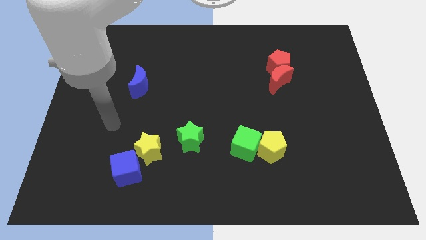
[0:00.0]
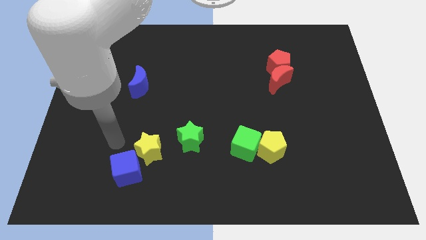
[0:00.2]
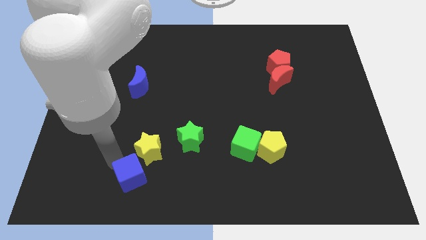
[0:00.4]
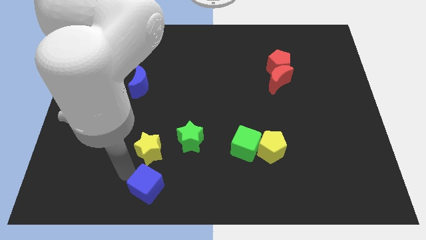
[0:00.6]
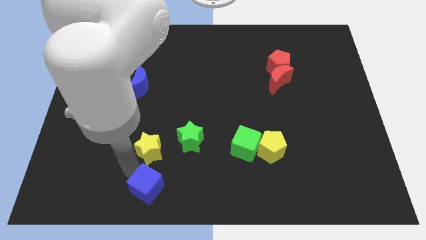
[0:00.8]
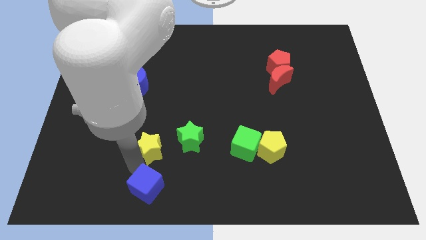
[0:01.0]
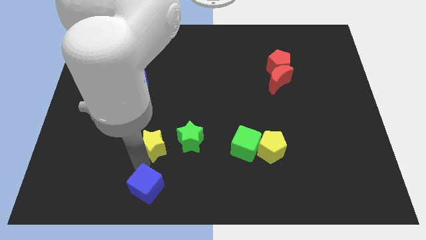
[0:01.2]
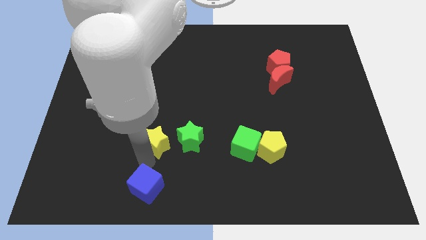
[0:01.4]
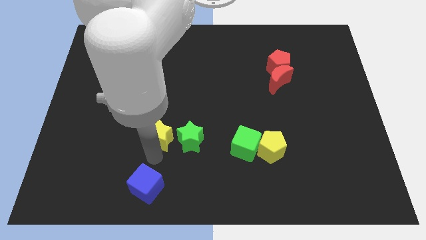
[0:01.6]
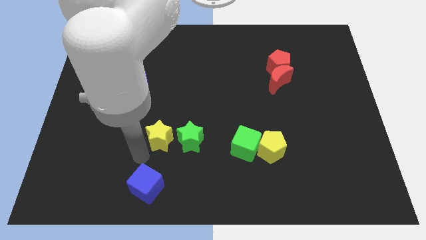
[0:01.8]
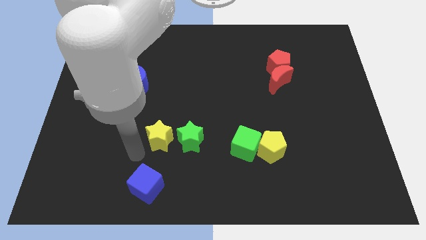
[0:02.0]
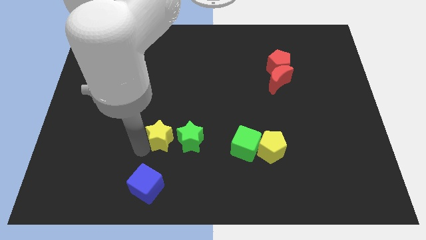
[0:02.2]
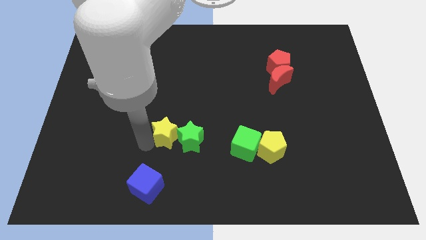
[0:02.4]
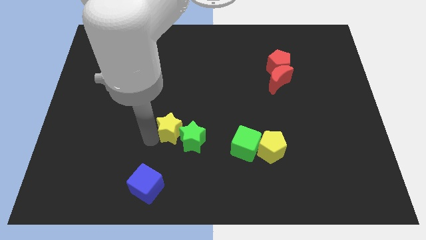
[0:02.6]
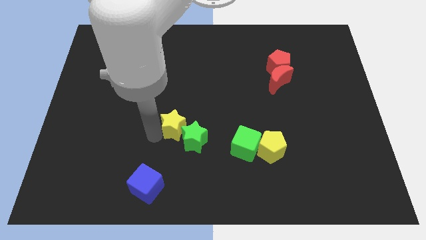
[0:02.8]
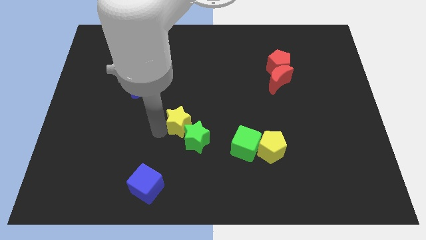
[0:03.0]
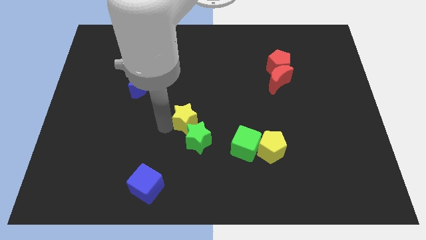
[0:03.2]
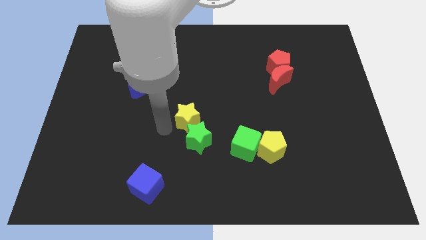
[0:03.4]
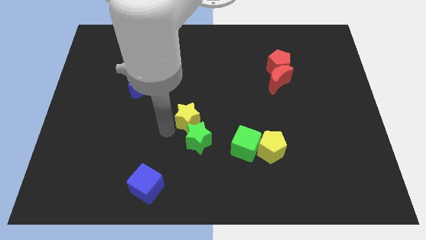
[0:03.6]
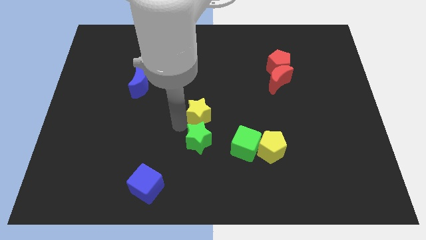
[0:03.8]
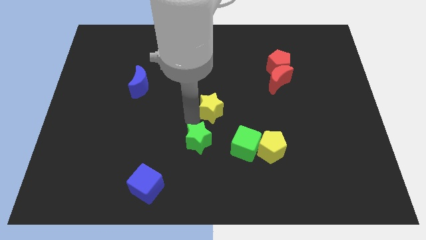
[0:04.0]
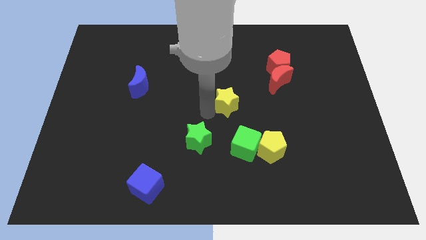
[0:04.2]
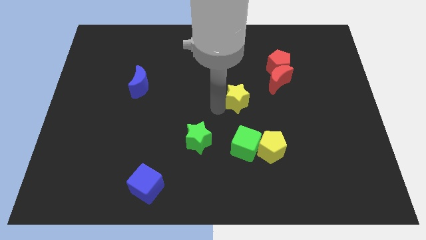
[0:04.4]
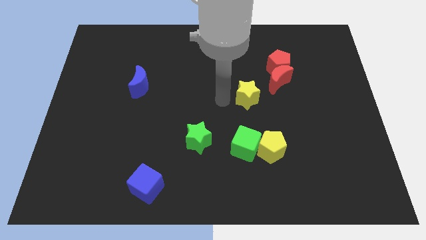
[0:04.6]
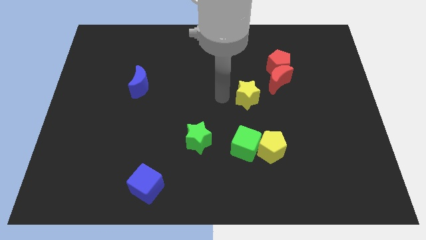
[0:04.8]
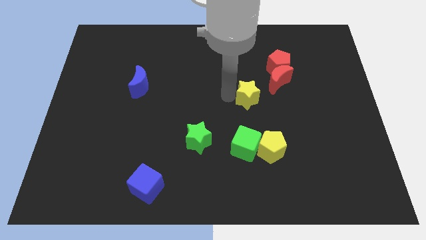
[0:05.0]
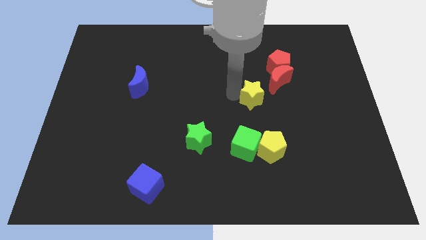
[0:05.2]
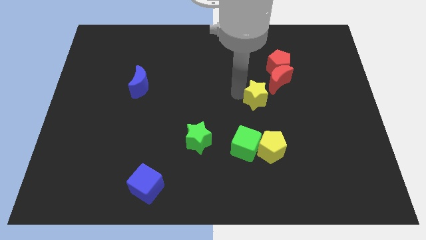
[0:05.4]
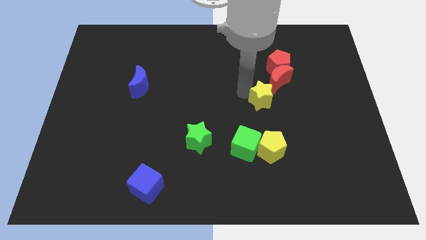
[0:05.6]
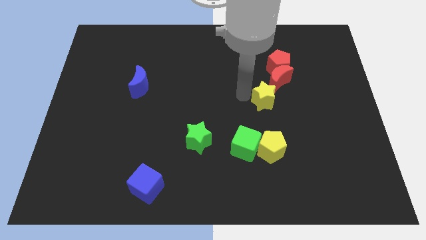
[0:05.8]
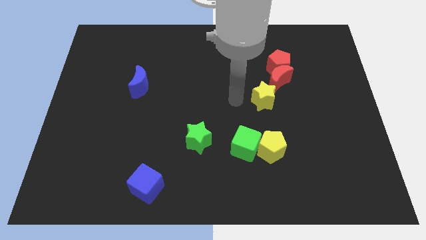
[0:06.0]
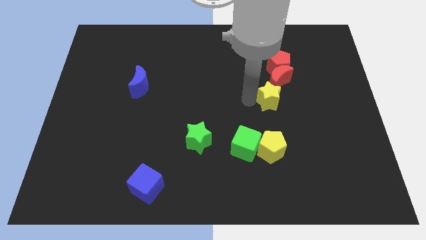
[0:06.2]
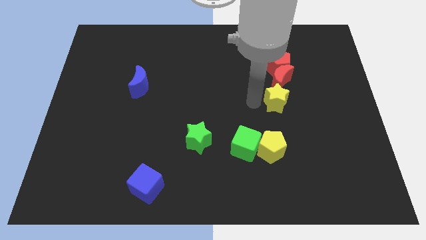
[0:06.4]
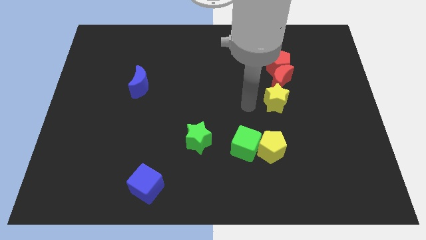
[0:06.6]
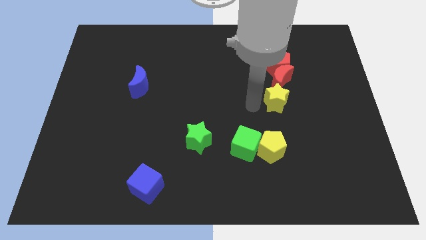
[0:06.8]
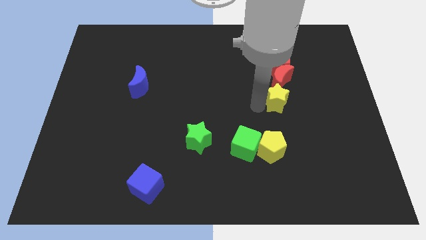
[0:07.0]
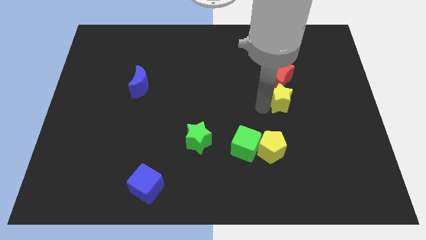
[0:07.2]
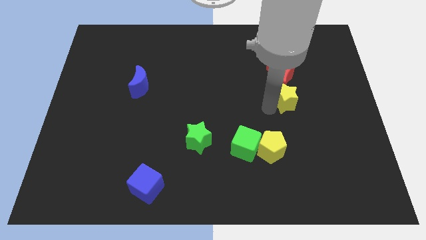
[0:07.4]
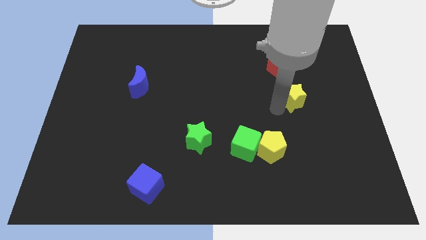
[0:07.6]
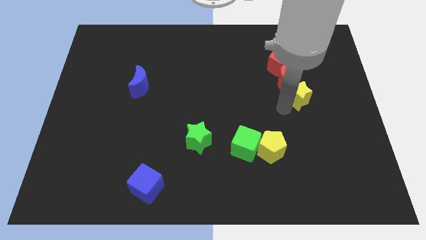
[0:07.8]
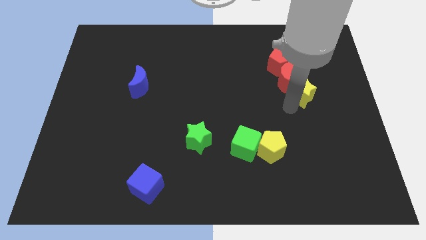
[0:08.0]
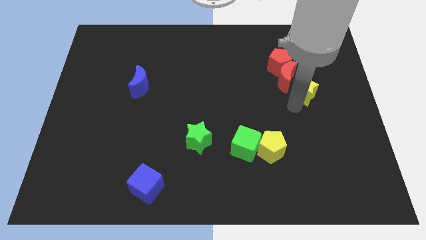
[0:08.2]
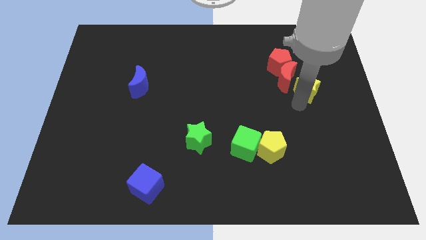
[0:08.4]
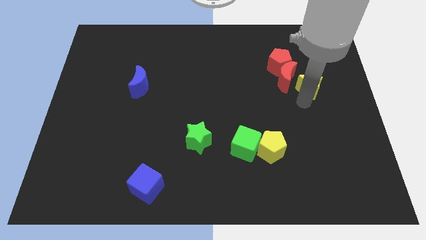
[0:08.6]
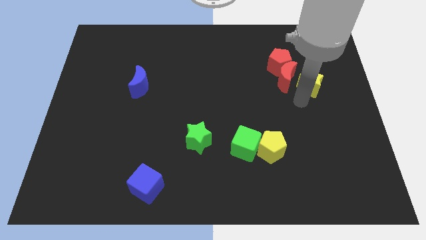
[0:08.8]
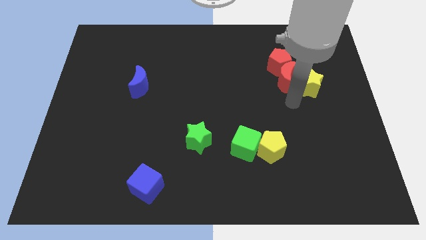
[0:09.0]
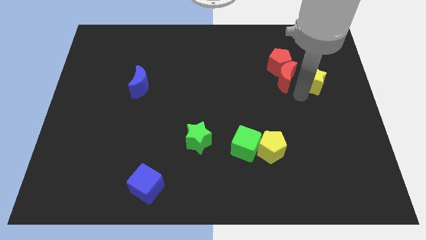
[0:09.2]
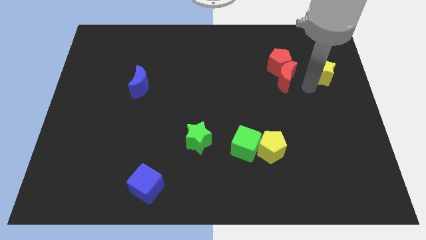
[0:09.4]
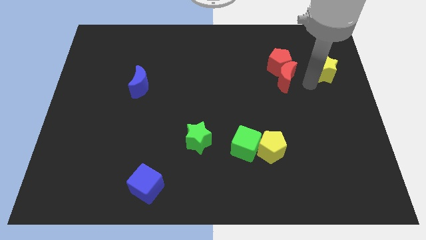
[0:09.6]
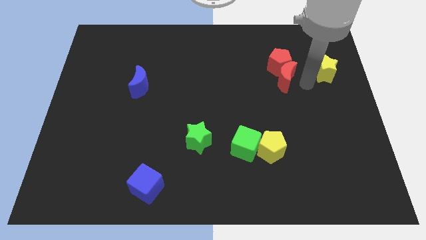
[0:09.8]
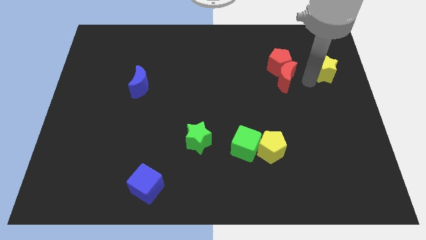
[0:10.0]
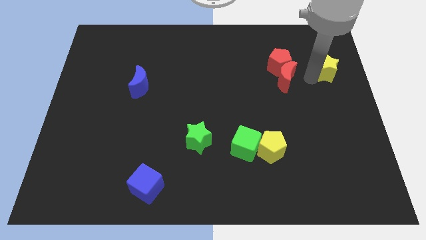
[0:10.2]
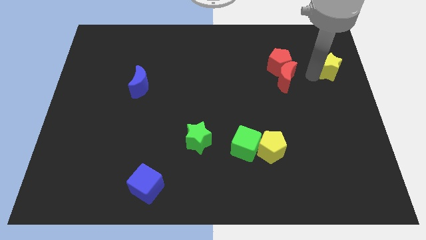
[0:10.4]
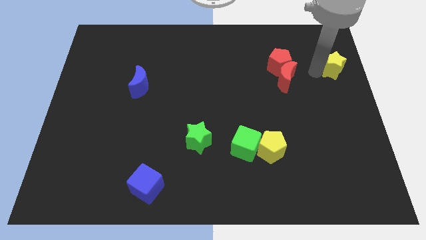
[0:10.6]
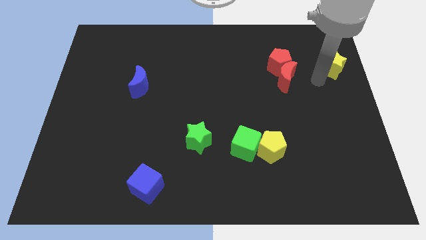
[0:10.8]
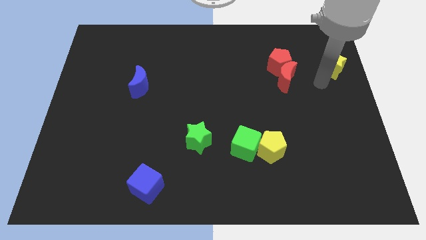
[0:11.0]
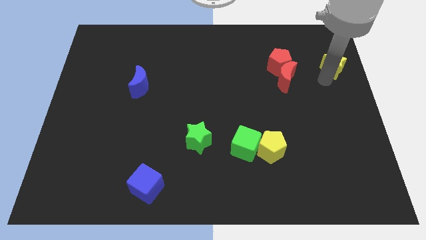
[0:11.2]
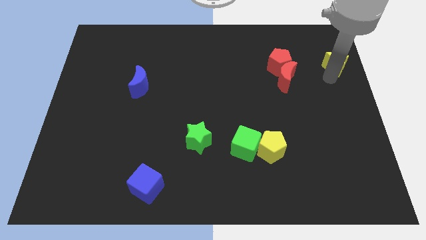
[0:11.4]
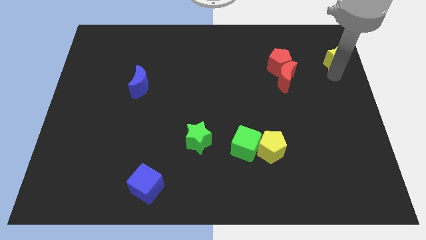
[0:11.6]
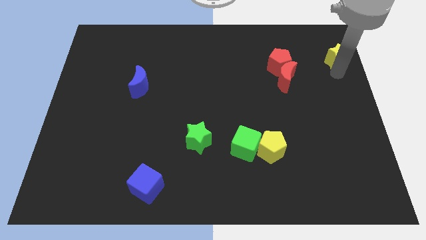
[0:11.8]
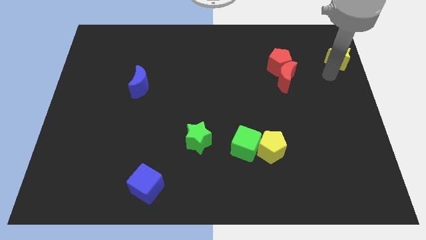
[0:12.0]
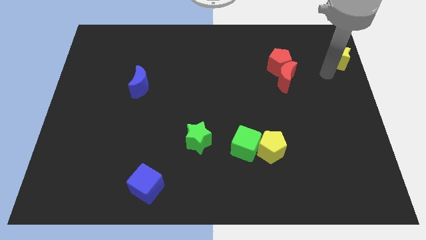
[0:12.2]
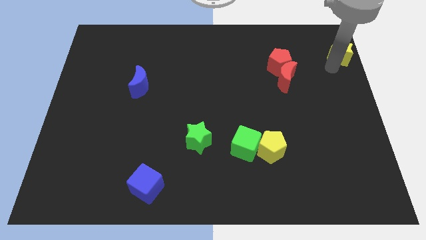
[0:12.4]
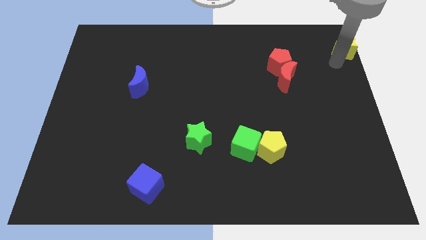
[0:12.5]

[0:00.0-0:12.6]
put the yellow star to the upper right corner
